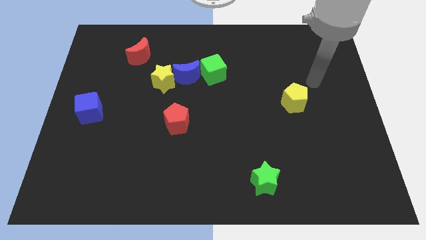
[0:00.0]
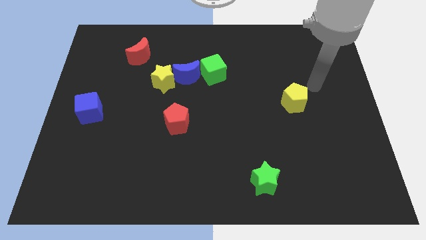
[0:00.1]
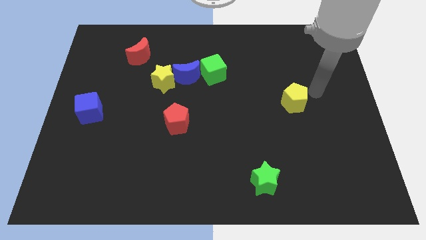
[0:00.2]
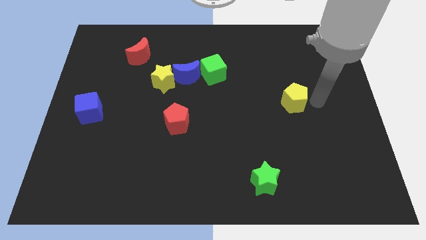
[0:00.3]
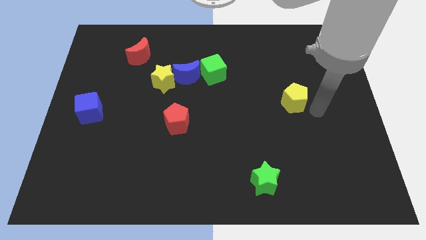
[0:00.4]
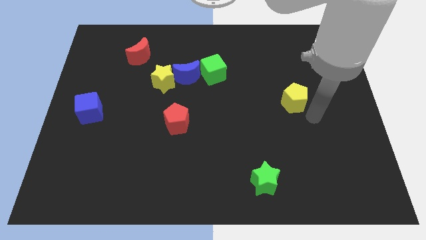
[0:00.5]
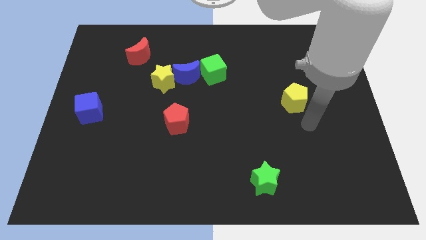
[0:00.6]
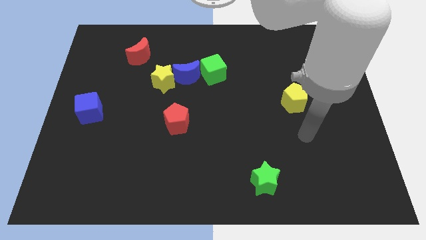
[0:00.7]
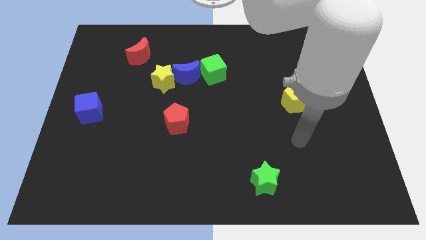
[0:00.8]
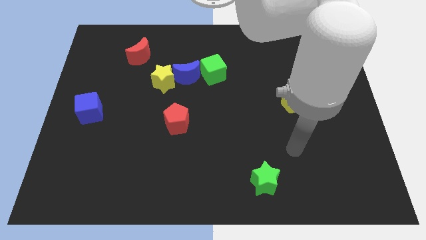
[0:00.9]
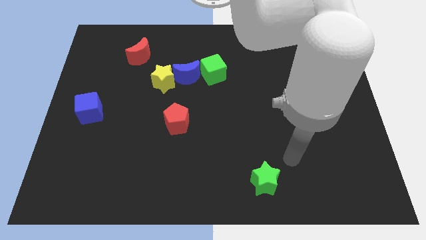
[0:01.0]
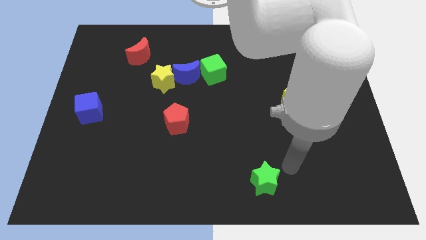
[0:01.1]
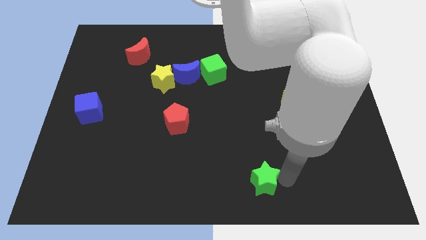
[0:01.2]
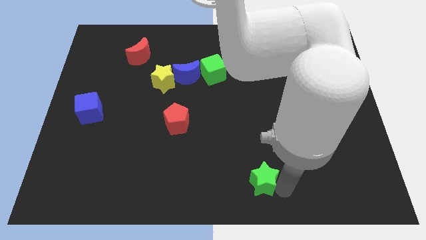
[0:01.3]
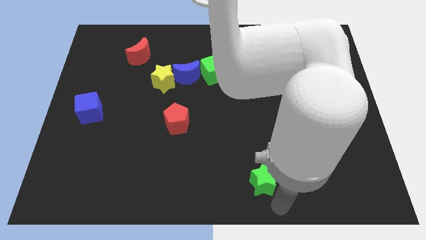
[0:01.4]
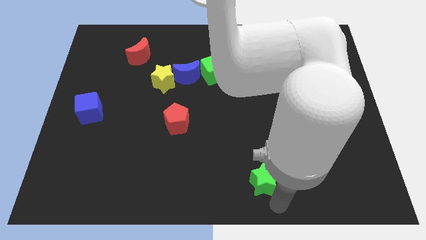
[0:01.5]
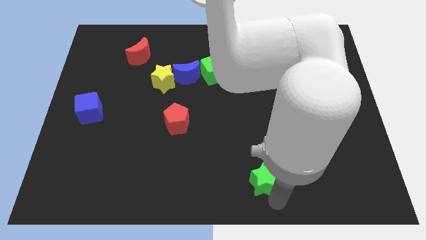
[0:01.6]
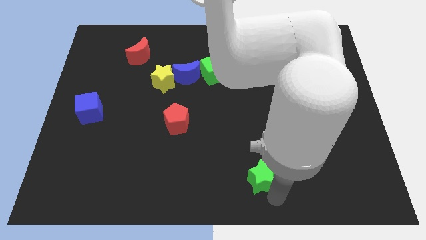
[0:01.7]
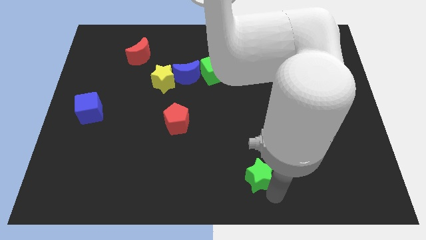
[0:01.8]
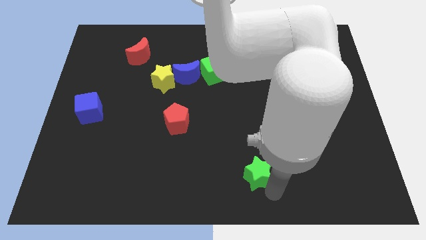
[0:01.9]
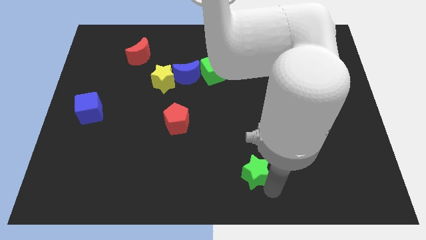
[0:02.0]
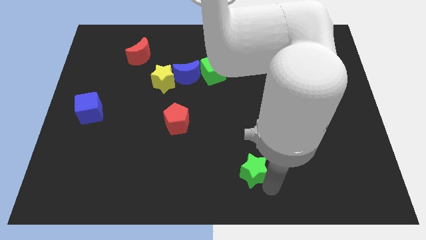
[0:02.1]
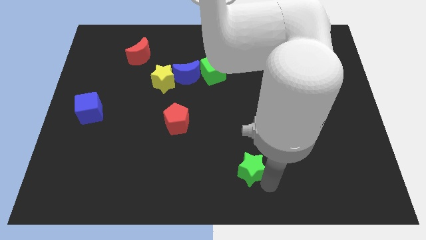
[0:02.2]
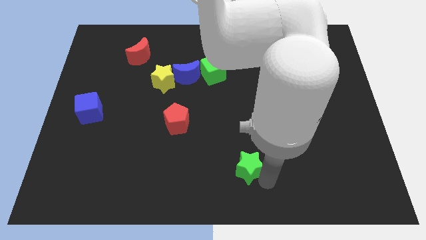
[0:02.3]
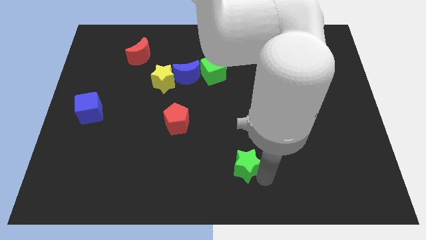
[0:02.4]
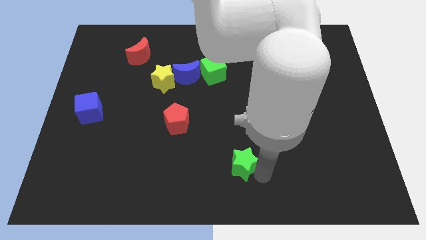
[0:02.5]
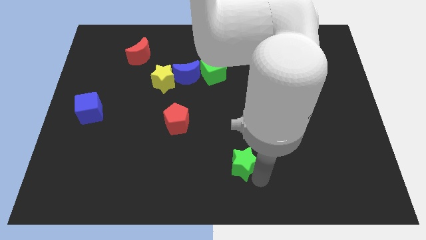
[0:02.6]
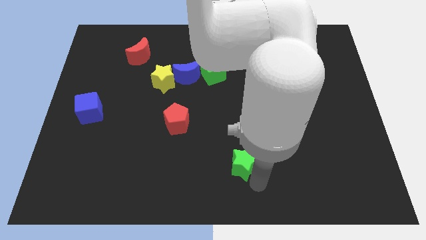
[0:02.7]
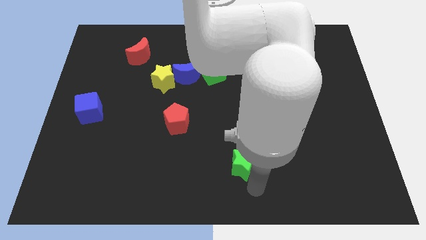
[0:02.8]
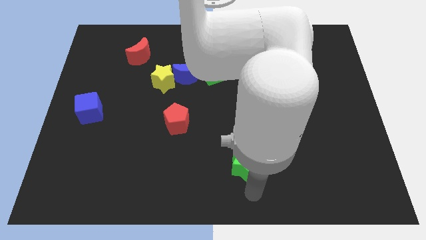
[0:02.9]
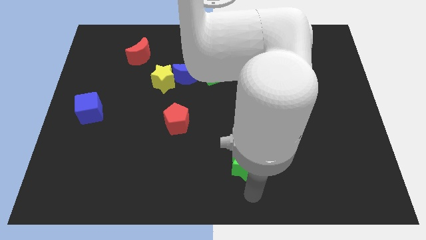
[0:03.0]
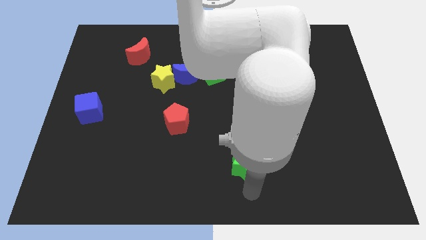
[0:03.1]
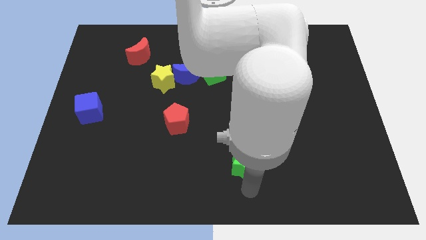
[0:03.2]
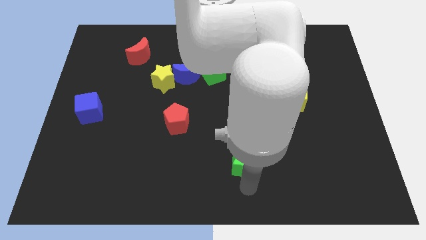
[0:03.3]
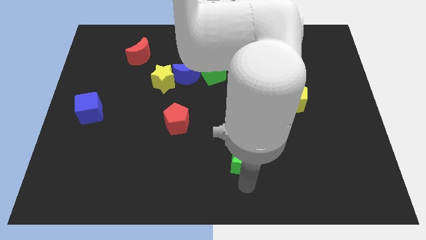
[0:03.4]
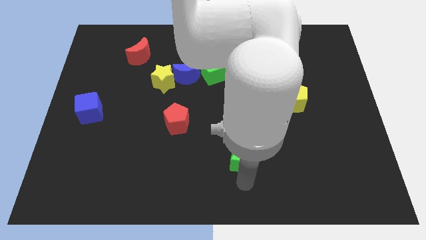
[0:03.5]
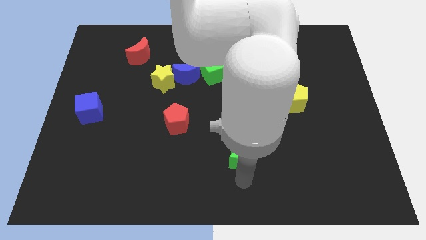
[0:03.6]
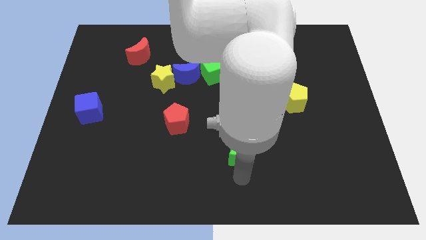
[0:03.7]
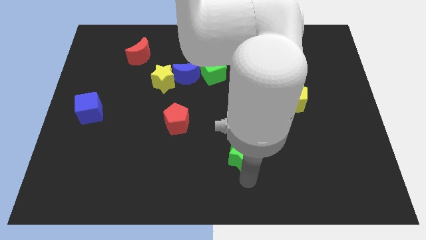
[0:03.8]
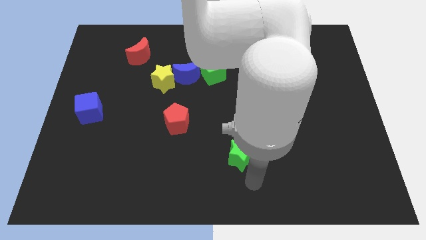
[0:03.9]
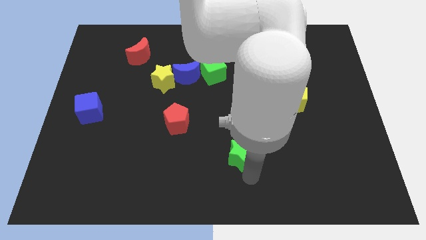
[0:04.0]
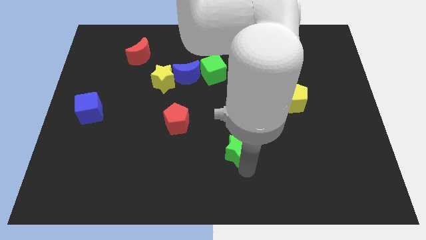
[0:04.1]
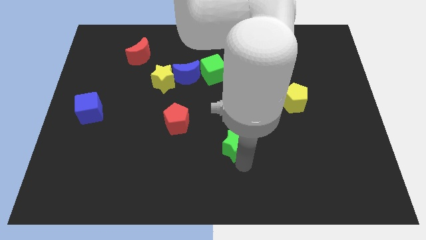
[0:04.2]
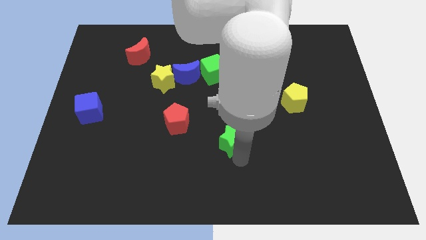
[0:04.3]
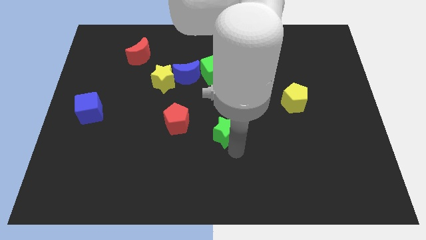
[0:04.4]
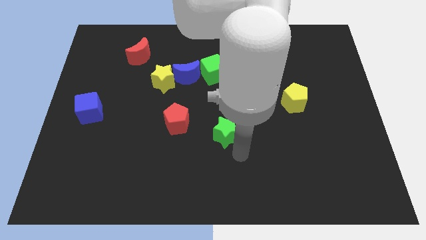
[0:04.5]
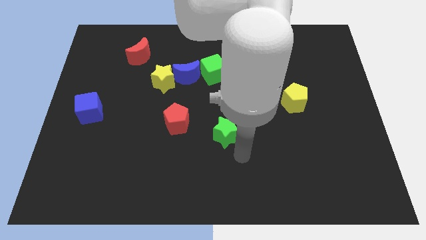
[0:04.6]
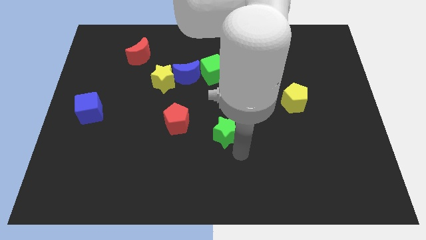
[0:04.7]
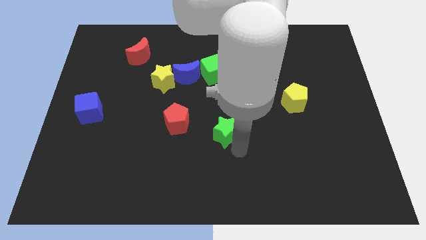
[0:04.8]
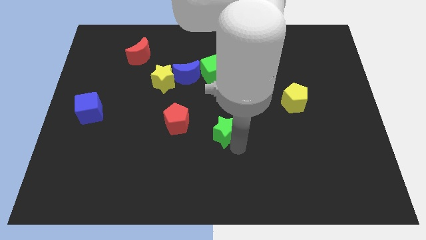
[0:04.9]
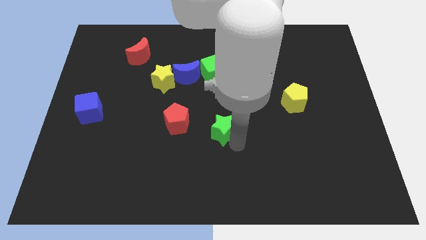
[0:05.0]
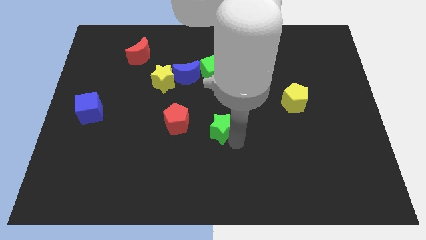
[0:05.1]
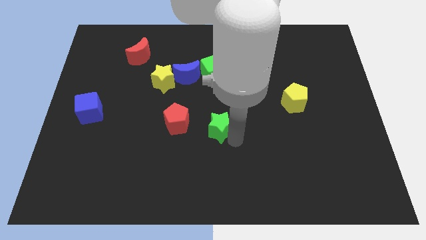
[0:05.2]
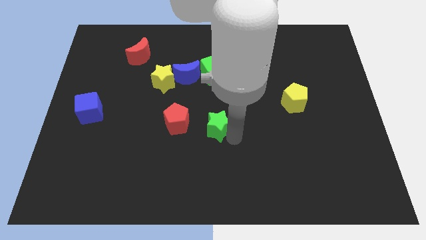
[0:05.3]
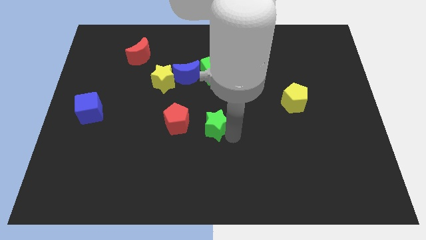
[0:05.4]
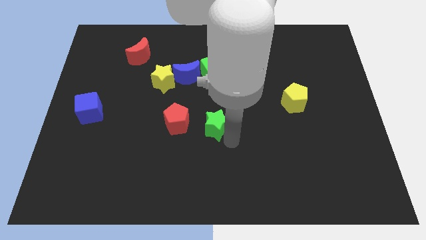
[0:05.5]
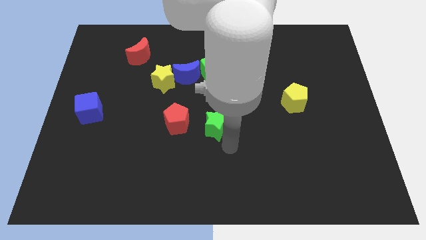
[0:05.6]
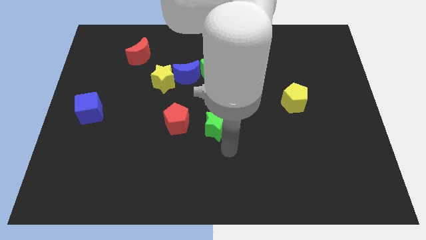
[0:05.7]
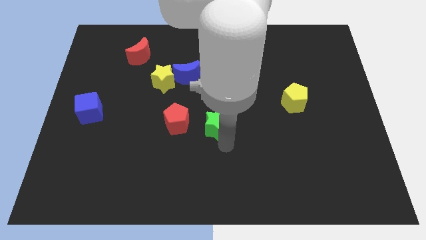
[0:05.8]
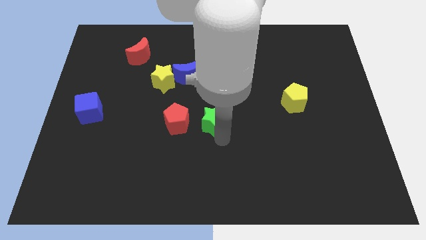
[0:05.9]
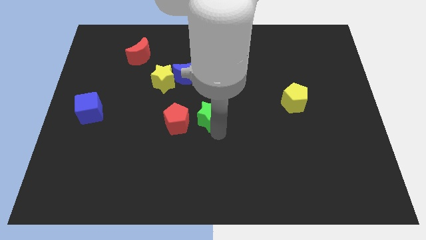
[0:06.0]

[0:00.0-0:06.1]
slide the green star diagonally up and to the right of the red pentagon
